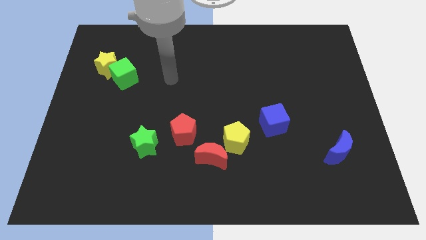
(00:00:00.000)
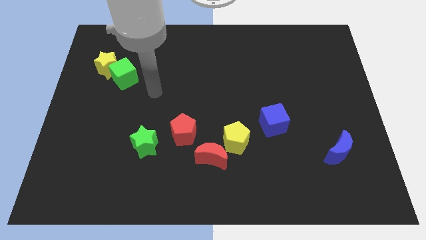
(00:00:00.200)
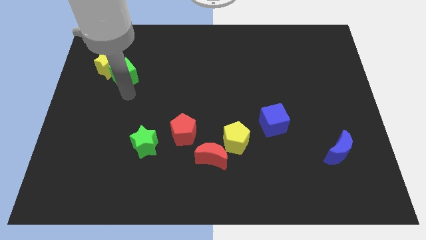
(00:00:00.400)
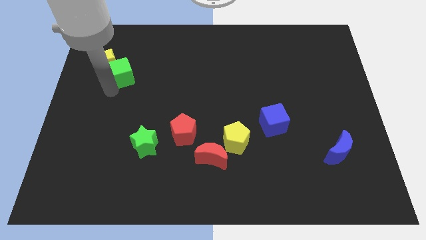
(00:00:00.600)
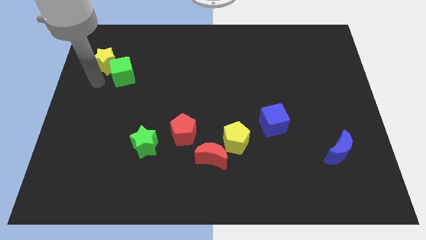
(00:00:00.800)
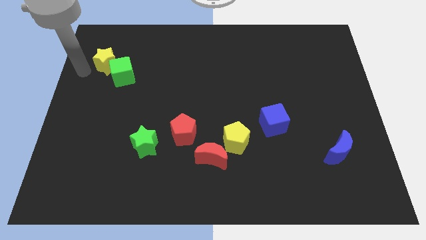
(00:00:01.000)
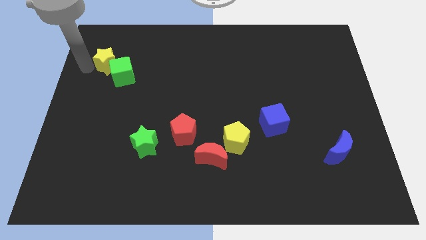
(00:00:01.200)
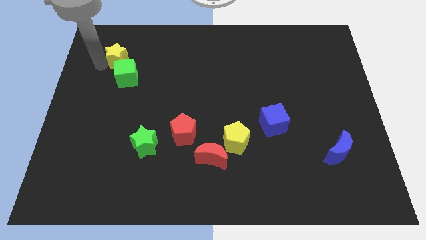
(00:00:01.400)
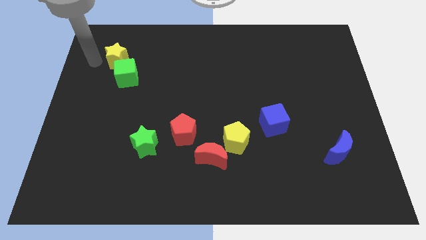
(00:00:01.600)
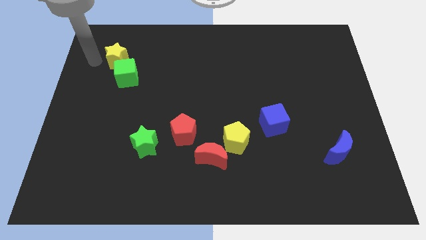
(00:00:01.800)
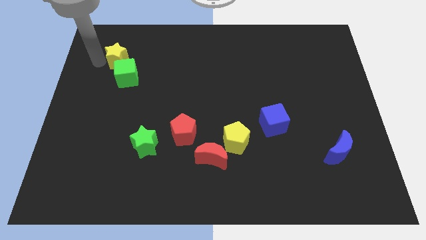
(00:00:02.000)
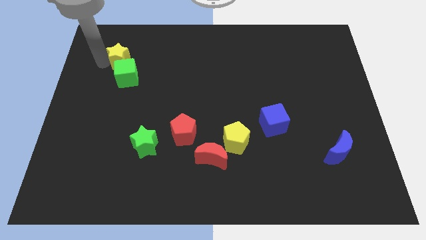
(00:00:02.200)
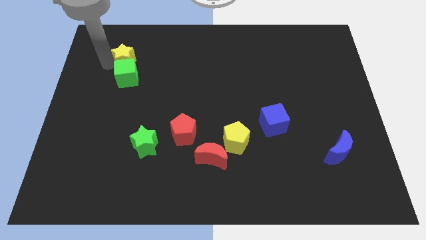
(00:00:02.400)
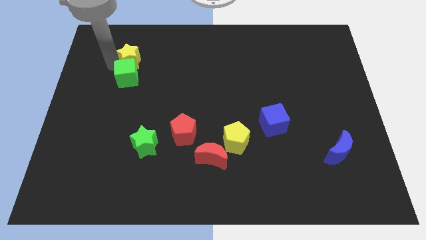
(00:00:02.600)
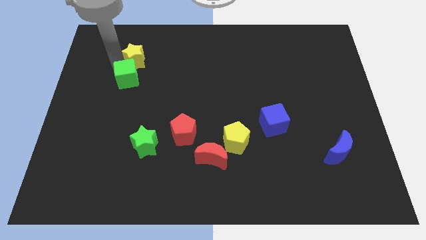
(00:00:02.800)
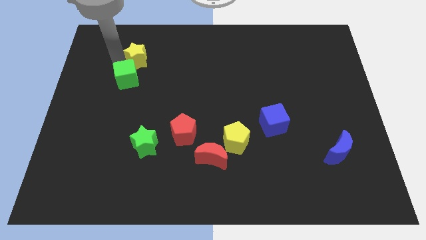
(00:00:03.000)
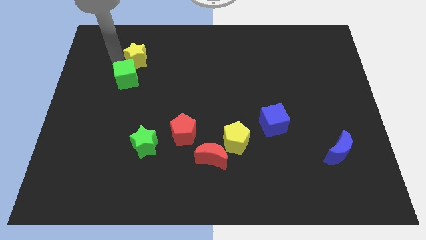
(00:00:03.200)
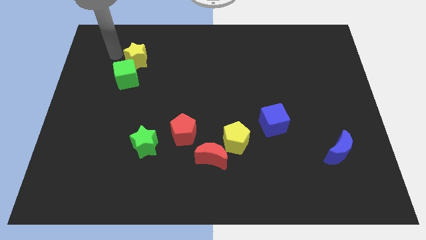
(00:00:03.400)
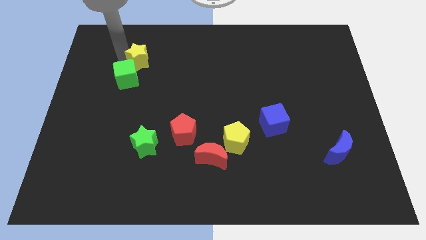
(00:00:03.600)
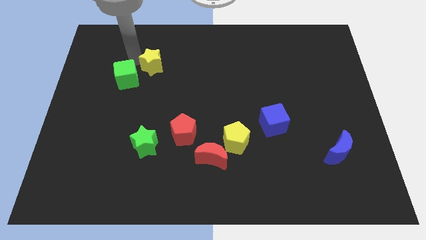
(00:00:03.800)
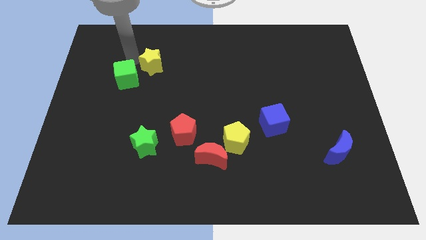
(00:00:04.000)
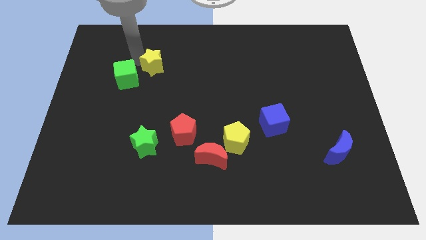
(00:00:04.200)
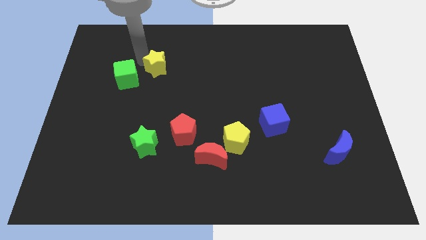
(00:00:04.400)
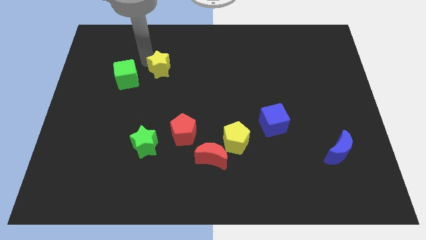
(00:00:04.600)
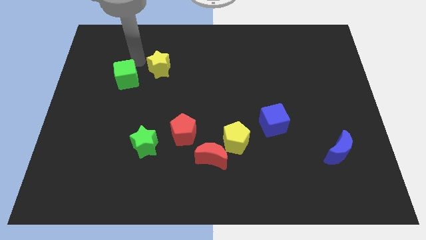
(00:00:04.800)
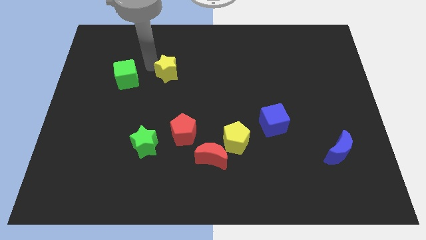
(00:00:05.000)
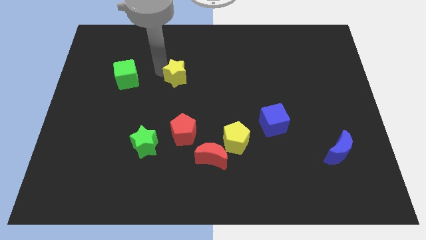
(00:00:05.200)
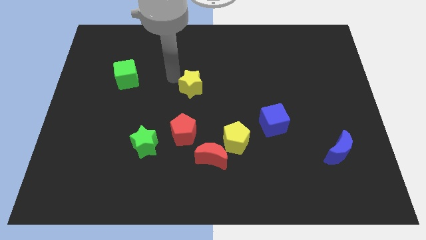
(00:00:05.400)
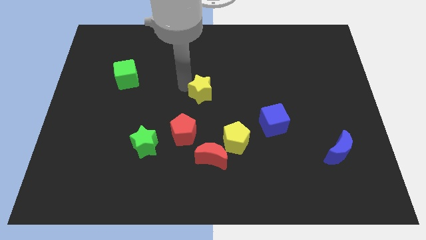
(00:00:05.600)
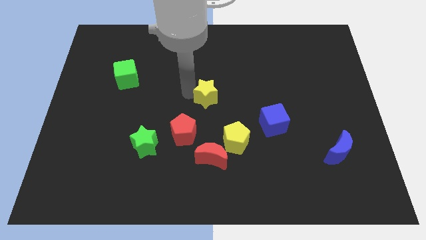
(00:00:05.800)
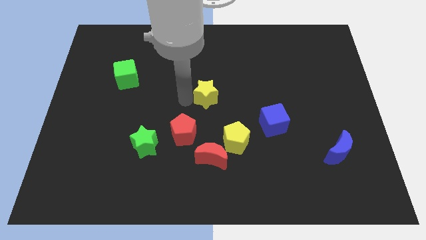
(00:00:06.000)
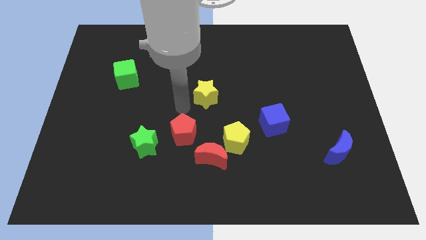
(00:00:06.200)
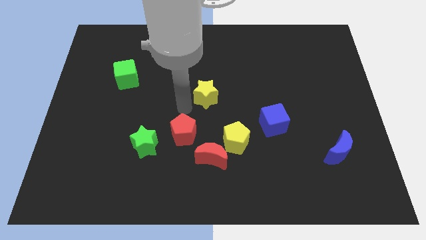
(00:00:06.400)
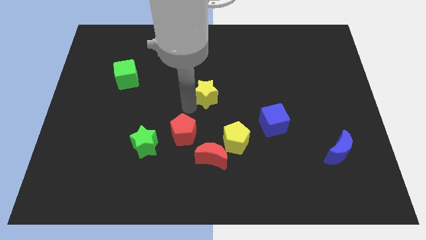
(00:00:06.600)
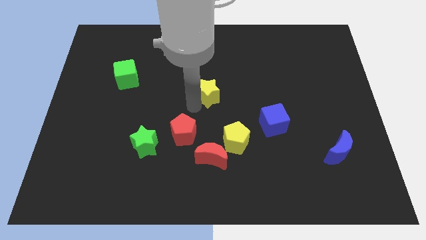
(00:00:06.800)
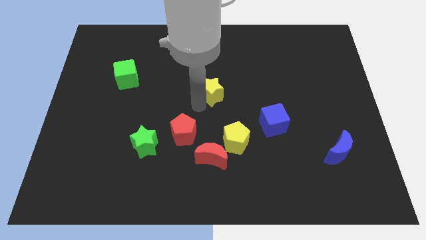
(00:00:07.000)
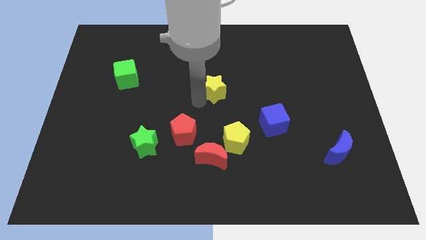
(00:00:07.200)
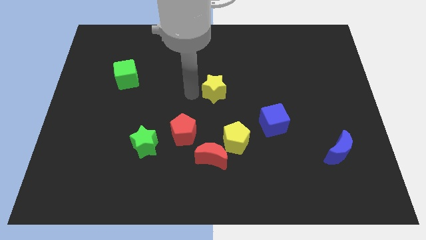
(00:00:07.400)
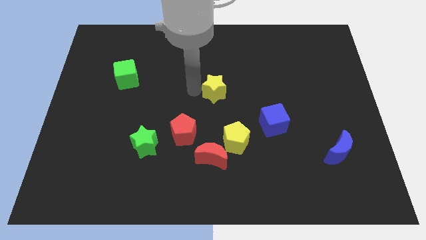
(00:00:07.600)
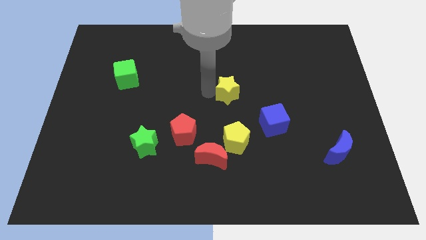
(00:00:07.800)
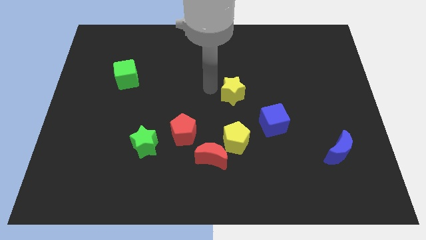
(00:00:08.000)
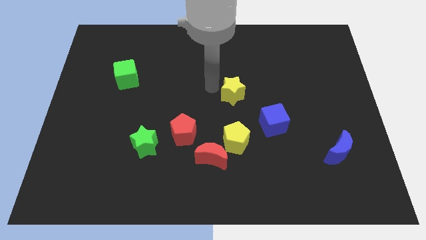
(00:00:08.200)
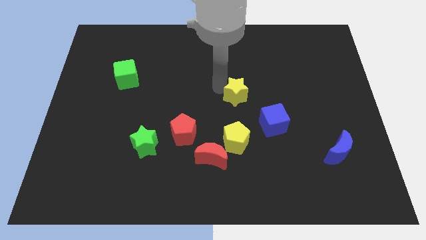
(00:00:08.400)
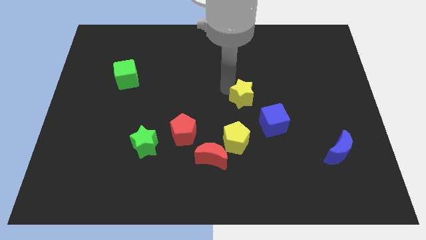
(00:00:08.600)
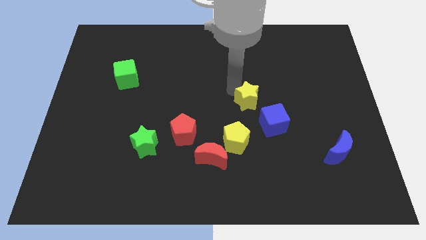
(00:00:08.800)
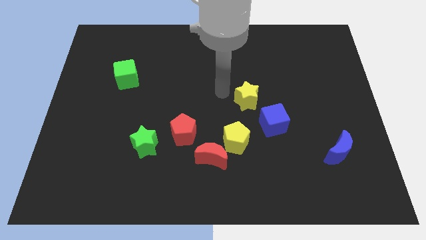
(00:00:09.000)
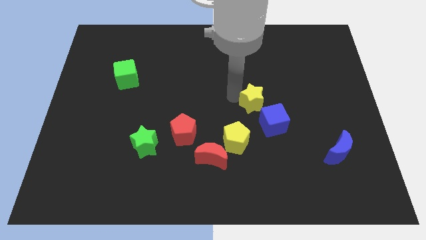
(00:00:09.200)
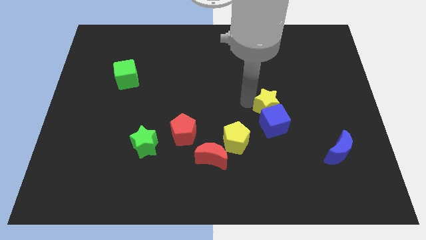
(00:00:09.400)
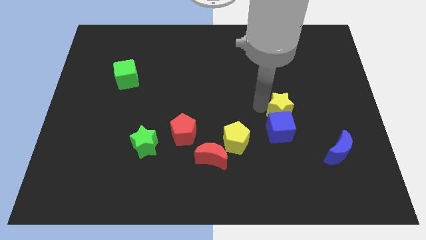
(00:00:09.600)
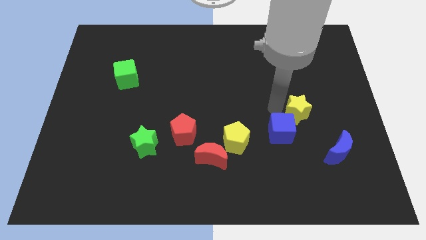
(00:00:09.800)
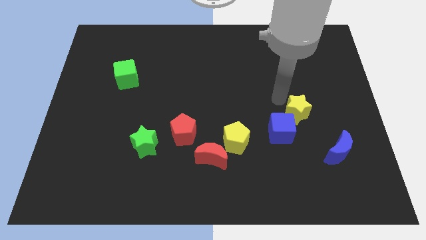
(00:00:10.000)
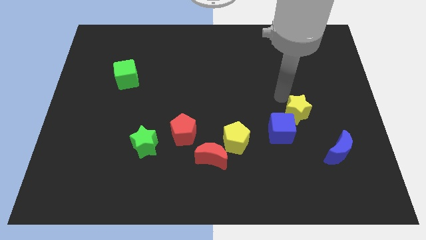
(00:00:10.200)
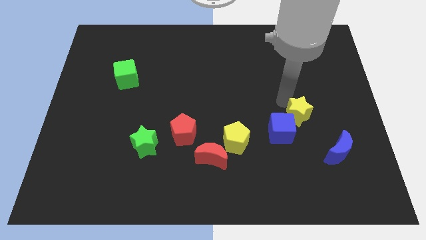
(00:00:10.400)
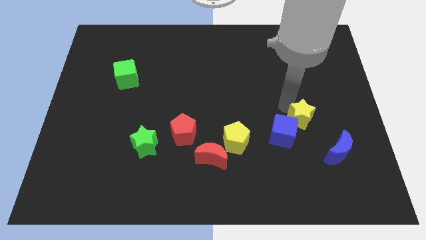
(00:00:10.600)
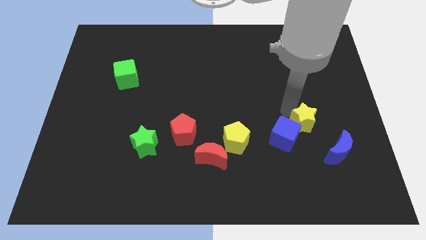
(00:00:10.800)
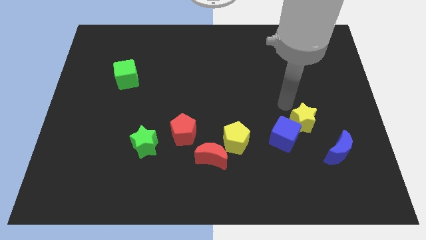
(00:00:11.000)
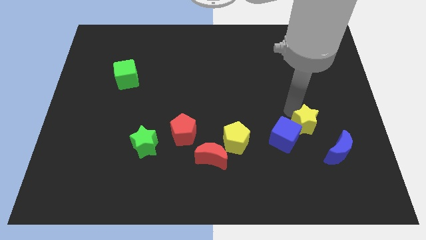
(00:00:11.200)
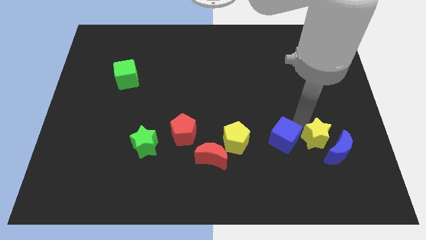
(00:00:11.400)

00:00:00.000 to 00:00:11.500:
slide the yellow star to the blue moon

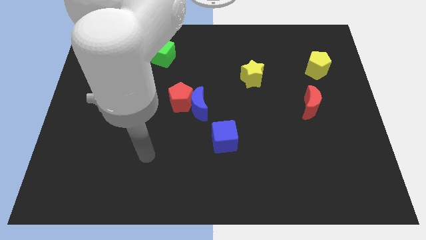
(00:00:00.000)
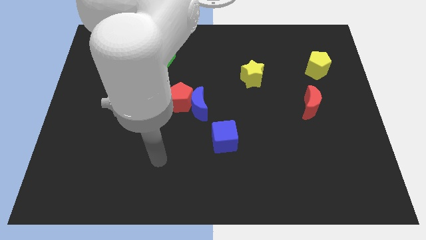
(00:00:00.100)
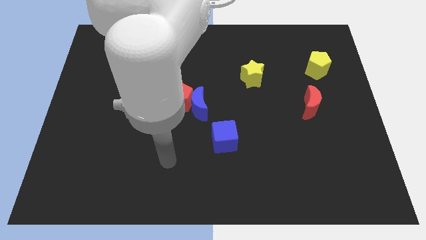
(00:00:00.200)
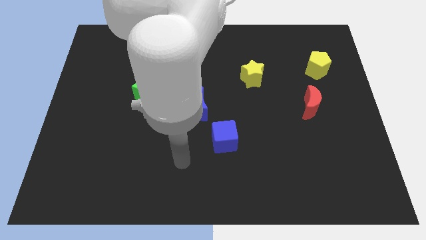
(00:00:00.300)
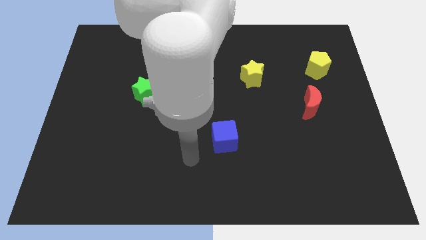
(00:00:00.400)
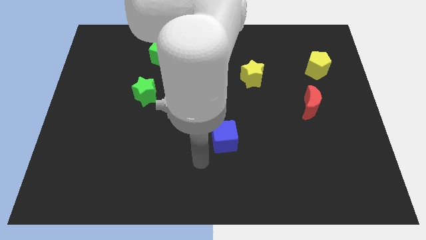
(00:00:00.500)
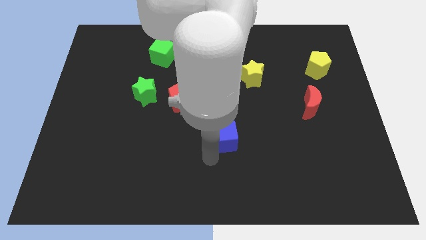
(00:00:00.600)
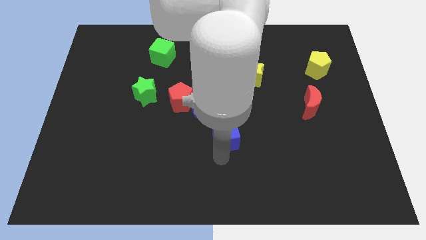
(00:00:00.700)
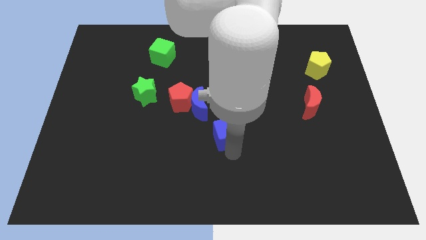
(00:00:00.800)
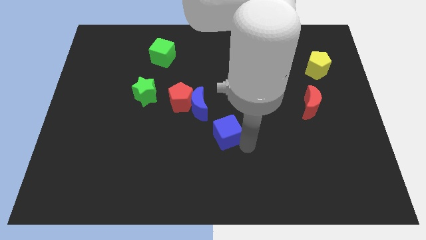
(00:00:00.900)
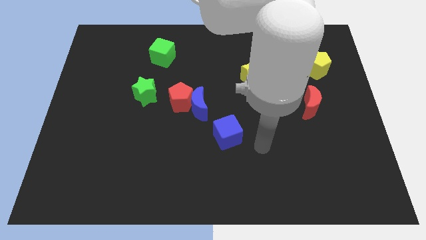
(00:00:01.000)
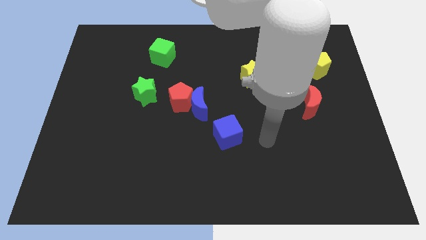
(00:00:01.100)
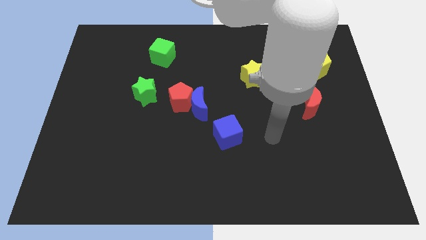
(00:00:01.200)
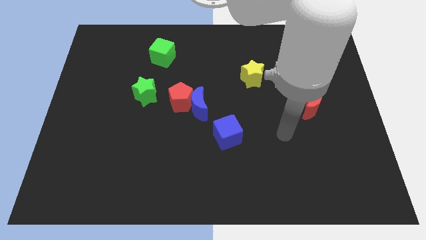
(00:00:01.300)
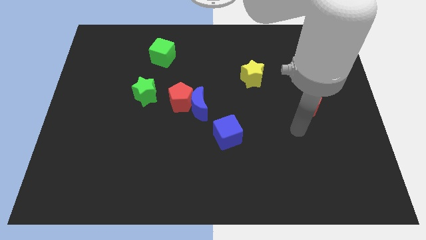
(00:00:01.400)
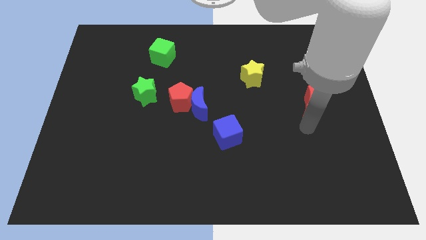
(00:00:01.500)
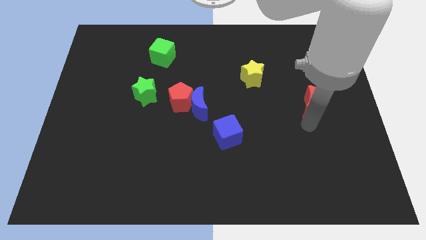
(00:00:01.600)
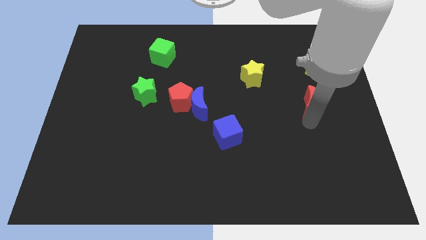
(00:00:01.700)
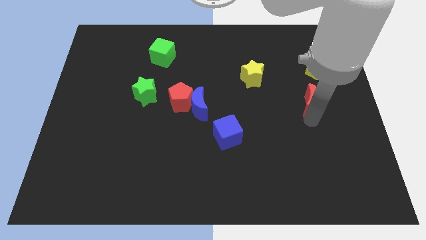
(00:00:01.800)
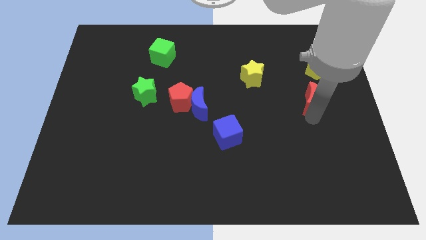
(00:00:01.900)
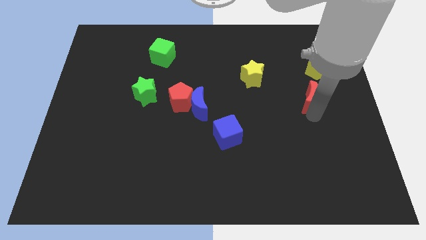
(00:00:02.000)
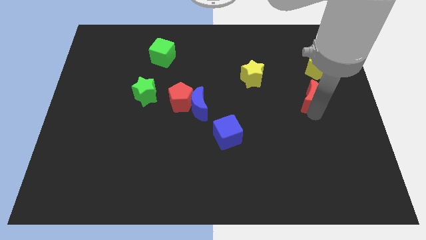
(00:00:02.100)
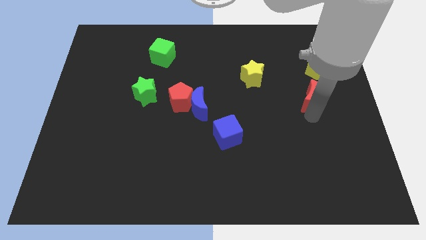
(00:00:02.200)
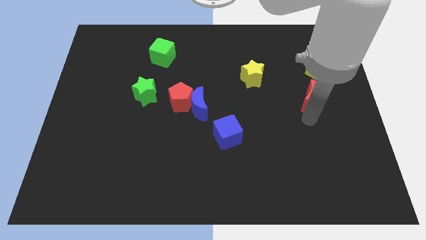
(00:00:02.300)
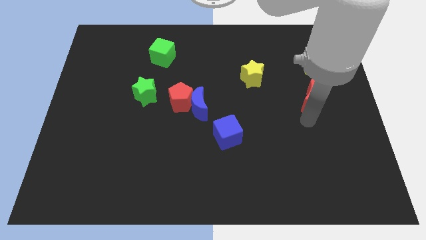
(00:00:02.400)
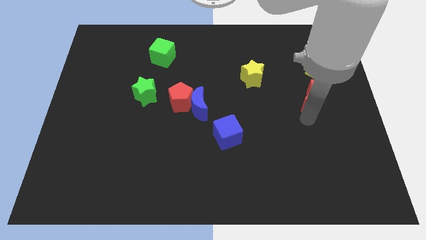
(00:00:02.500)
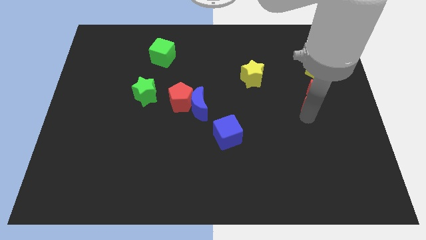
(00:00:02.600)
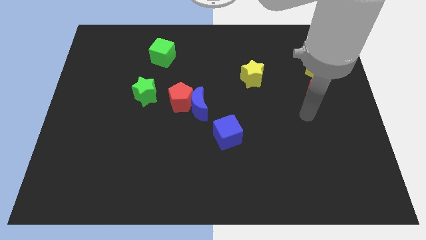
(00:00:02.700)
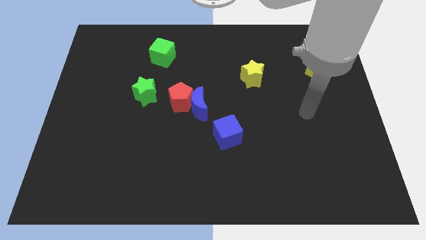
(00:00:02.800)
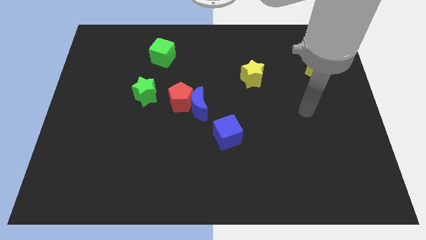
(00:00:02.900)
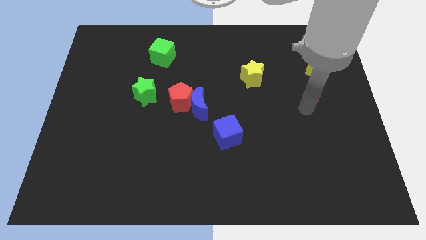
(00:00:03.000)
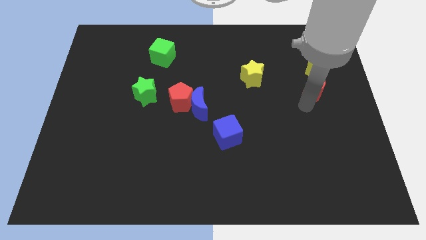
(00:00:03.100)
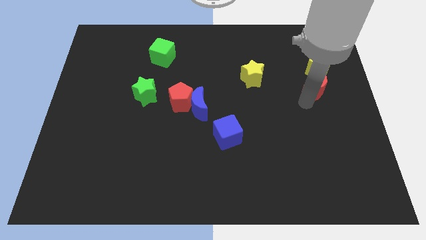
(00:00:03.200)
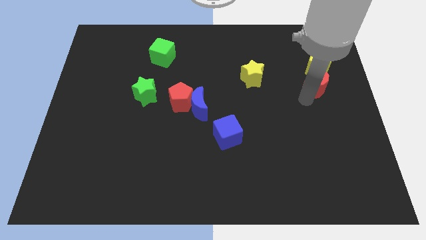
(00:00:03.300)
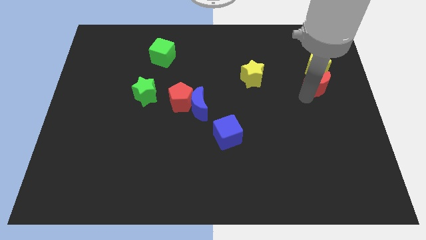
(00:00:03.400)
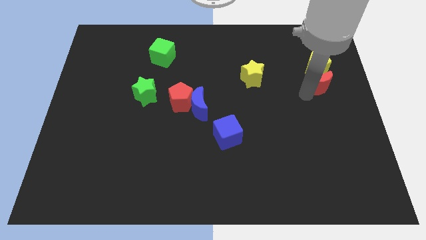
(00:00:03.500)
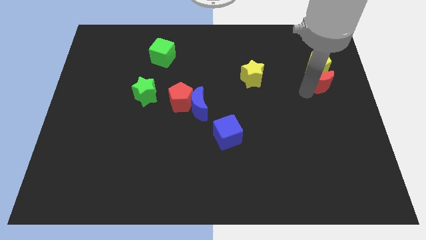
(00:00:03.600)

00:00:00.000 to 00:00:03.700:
slide the red moon towards the yellow pentagon
